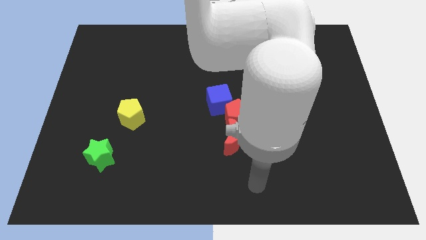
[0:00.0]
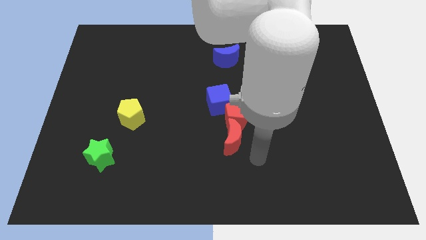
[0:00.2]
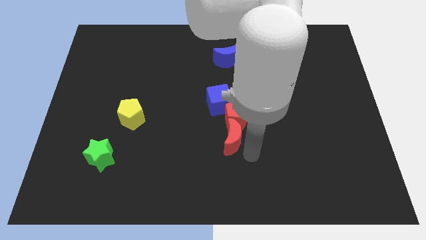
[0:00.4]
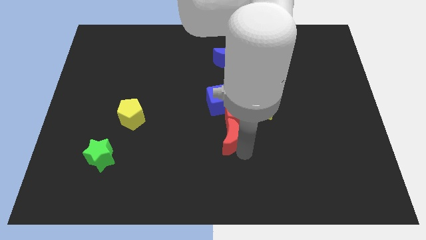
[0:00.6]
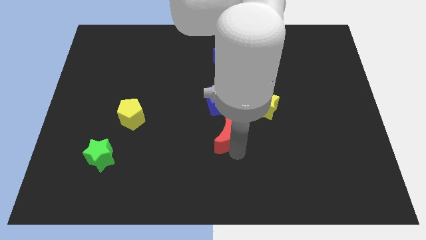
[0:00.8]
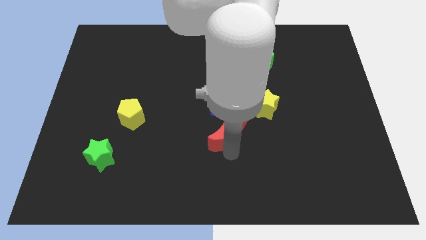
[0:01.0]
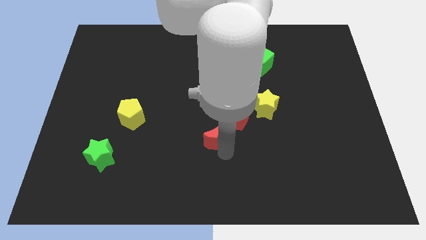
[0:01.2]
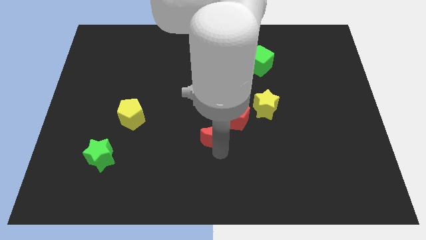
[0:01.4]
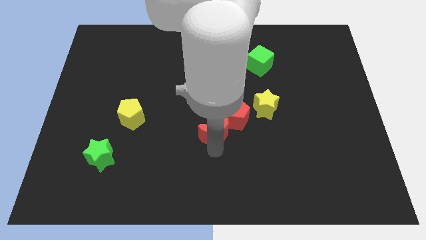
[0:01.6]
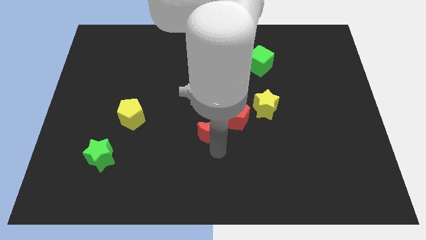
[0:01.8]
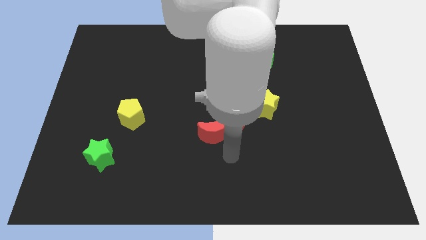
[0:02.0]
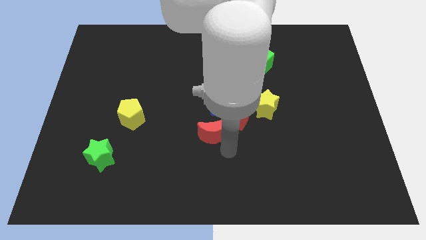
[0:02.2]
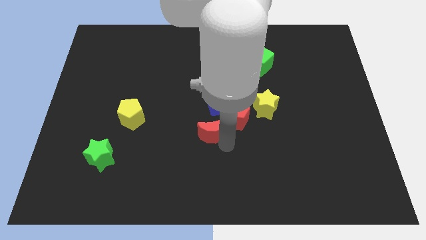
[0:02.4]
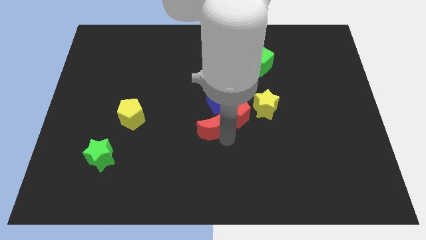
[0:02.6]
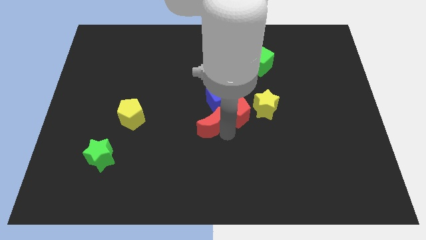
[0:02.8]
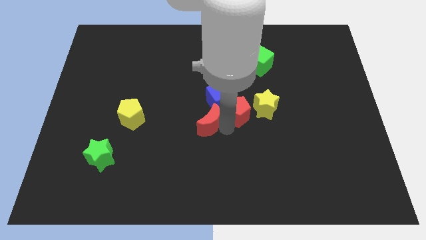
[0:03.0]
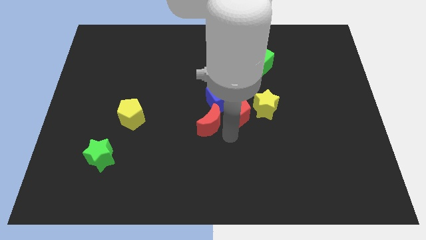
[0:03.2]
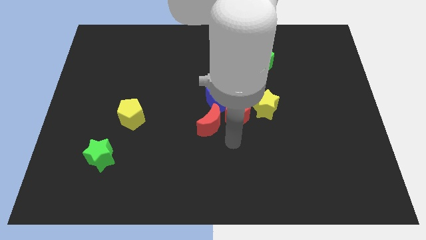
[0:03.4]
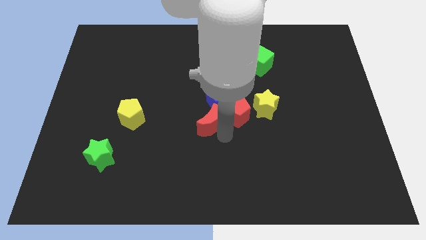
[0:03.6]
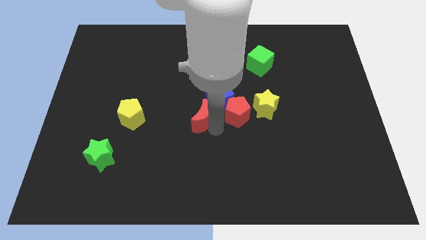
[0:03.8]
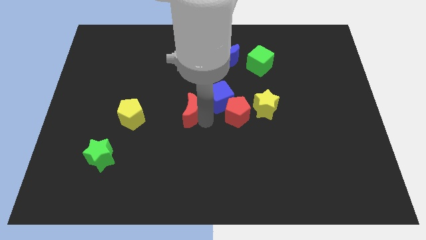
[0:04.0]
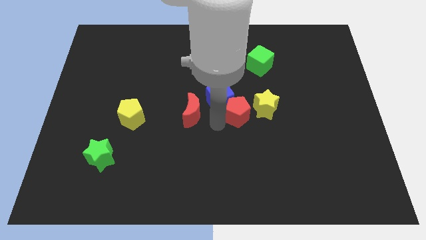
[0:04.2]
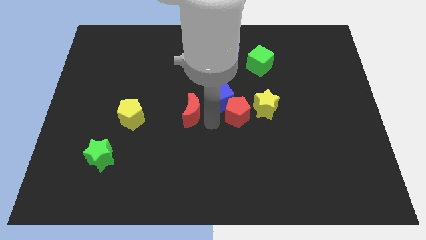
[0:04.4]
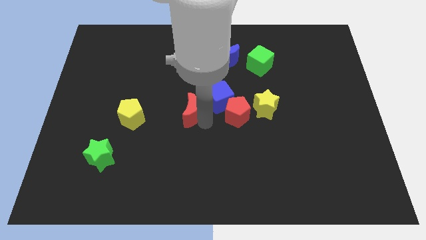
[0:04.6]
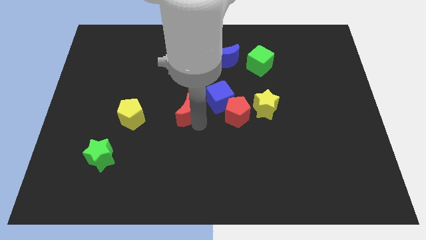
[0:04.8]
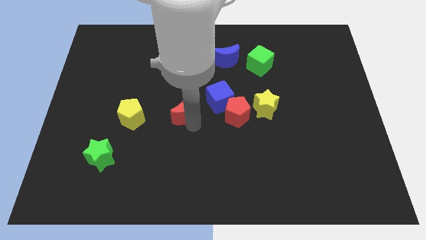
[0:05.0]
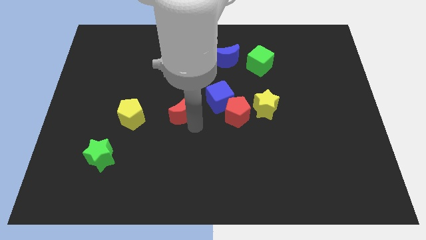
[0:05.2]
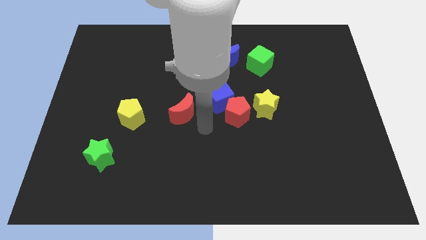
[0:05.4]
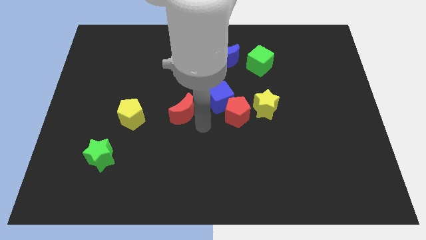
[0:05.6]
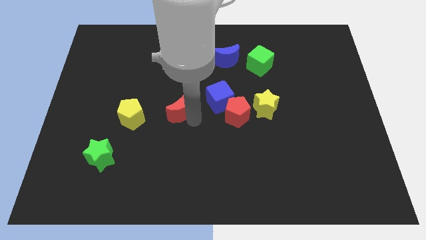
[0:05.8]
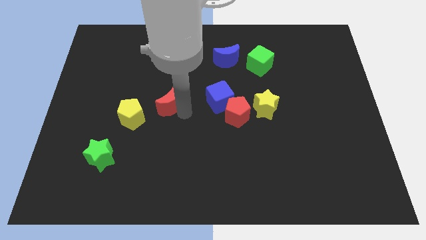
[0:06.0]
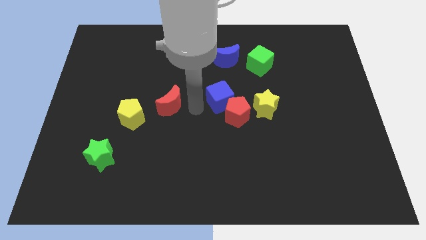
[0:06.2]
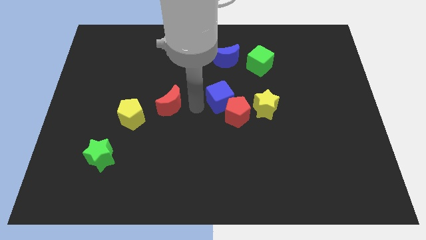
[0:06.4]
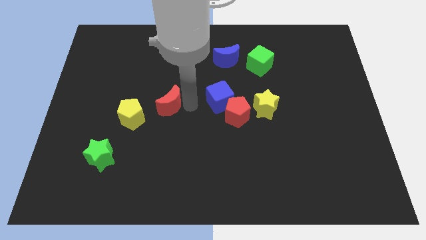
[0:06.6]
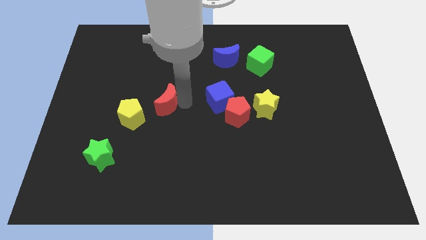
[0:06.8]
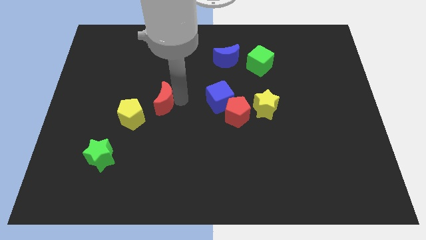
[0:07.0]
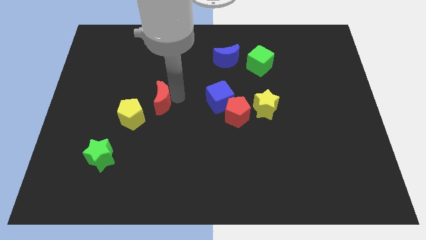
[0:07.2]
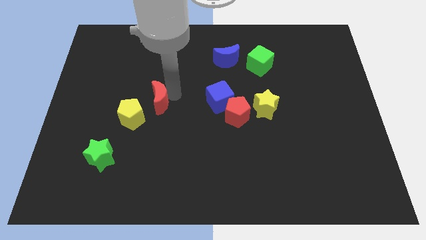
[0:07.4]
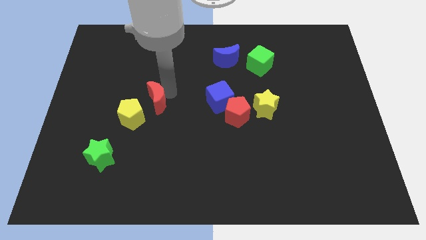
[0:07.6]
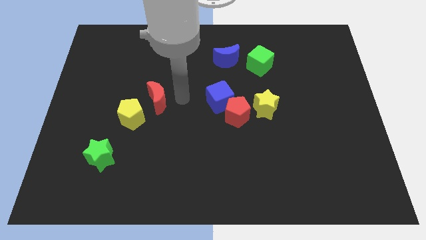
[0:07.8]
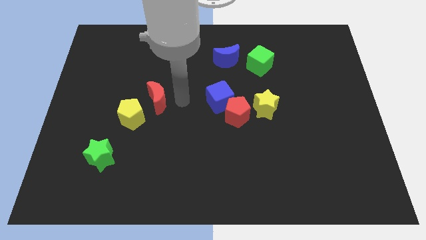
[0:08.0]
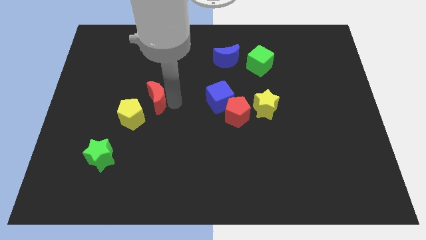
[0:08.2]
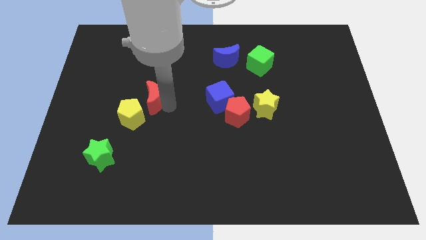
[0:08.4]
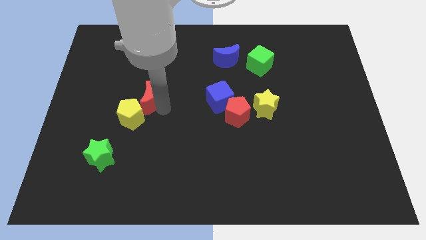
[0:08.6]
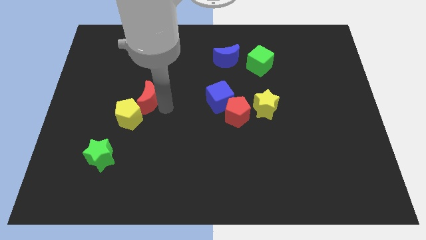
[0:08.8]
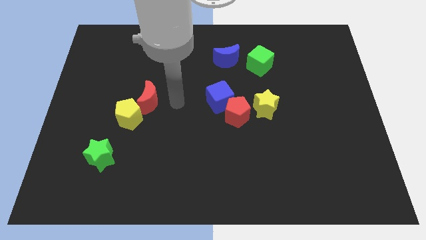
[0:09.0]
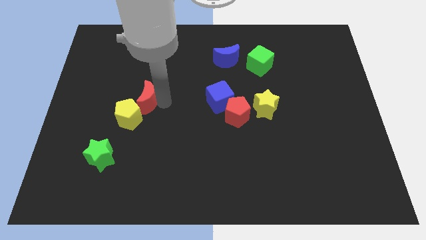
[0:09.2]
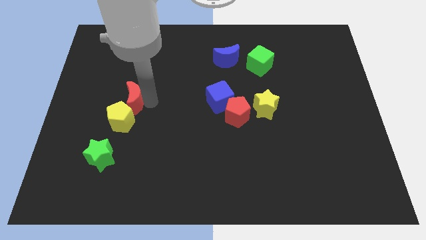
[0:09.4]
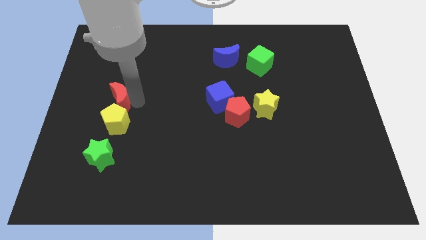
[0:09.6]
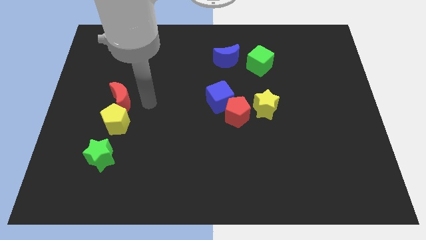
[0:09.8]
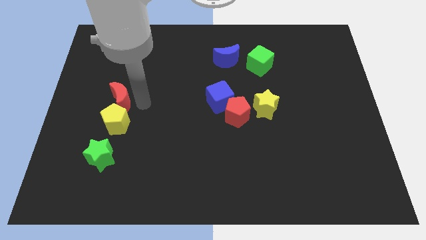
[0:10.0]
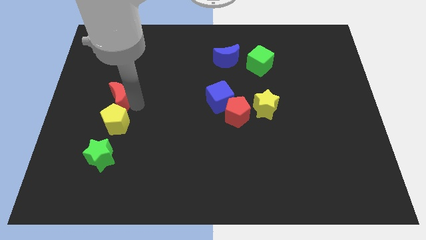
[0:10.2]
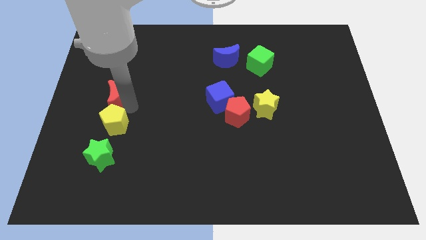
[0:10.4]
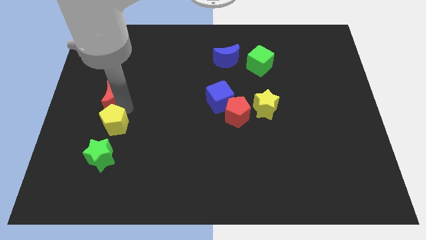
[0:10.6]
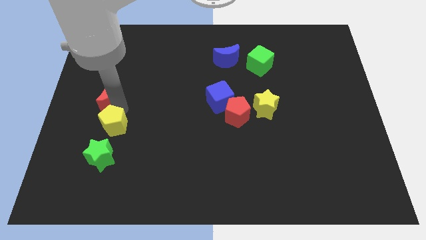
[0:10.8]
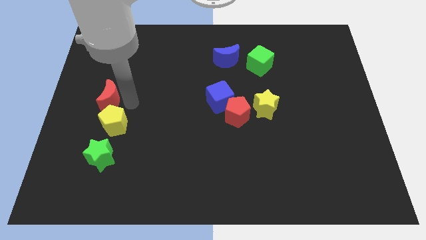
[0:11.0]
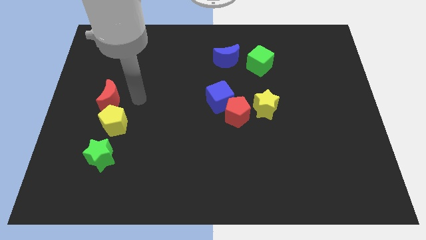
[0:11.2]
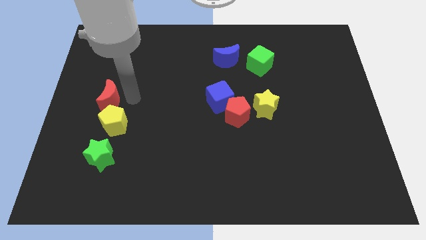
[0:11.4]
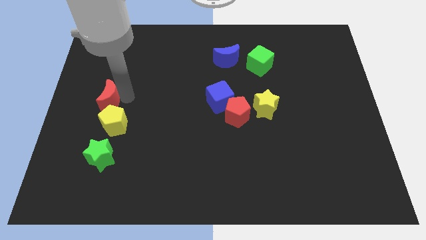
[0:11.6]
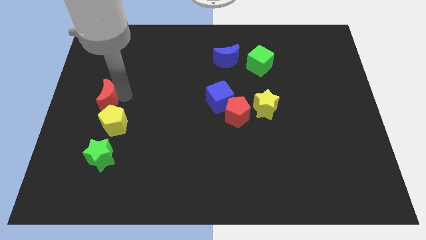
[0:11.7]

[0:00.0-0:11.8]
slide the red moon to the left side of the board

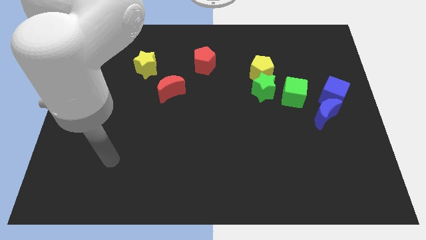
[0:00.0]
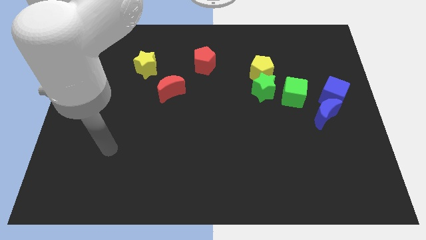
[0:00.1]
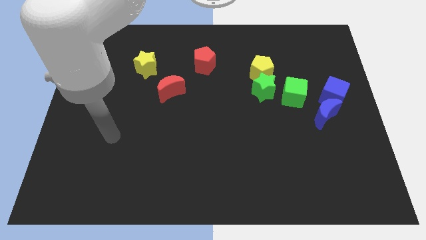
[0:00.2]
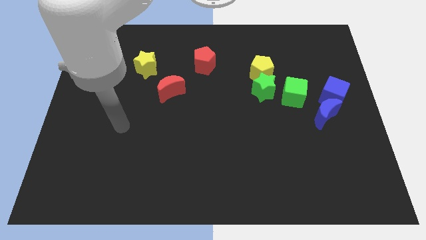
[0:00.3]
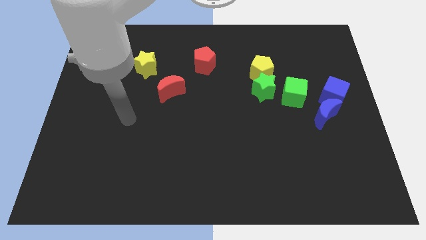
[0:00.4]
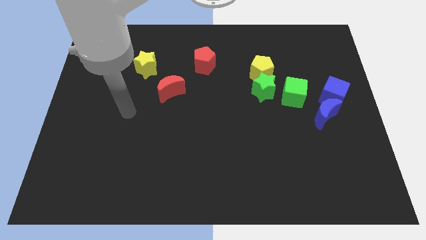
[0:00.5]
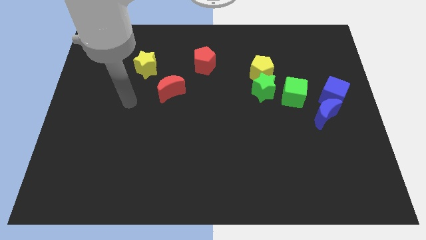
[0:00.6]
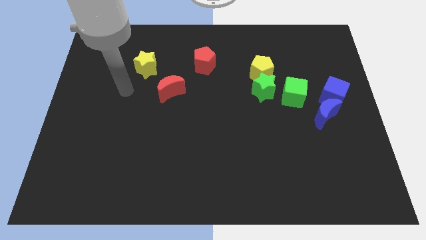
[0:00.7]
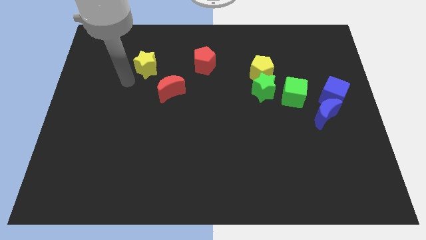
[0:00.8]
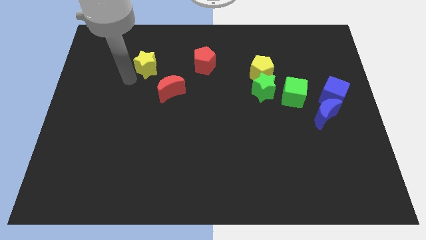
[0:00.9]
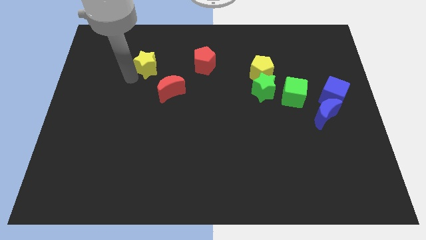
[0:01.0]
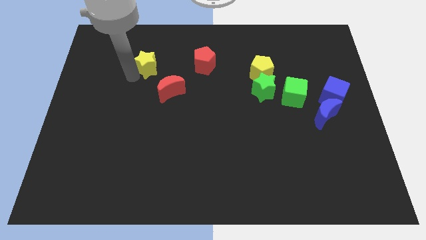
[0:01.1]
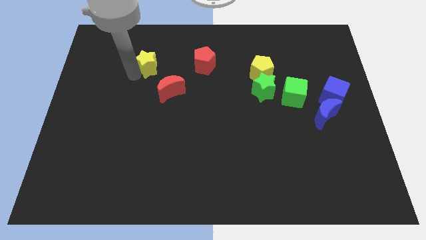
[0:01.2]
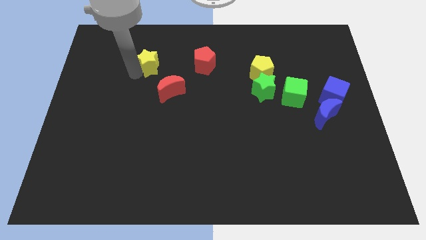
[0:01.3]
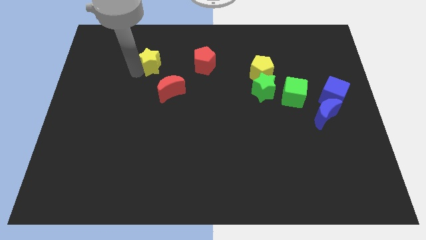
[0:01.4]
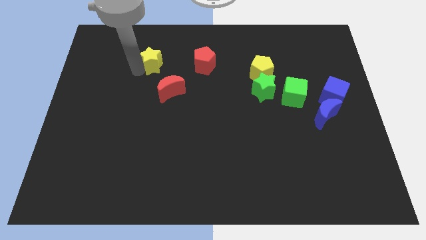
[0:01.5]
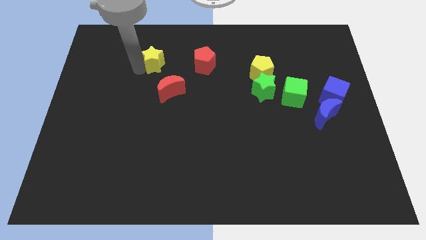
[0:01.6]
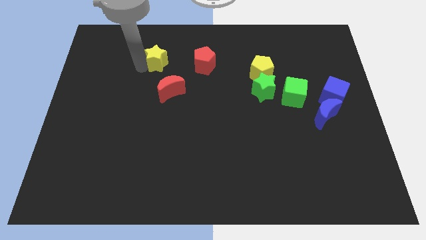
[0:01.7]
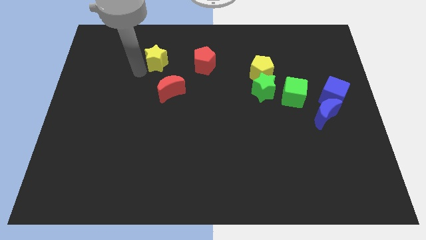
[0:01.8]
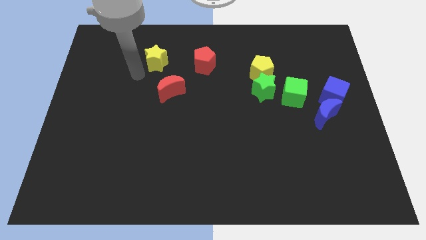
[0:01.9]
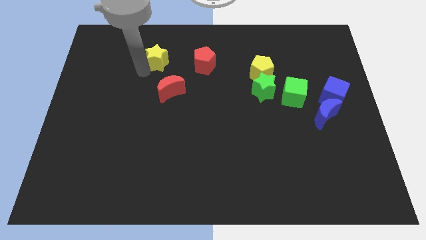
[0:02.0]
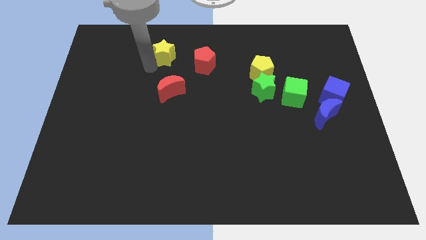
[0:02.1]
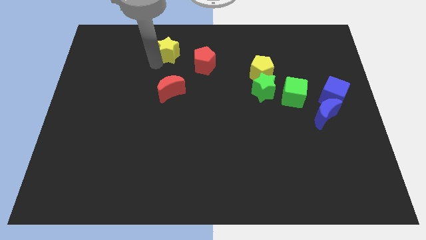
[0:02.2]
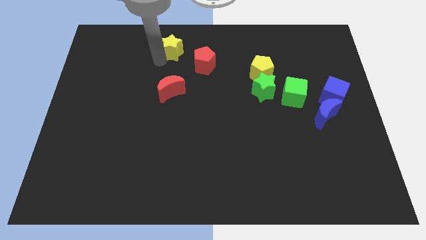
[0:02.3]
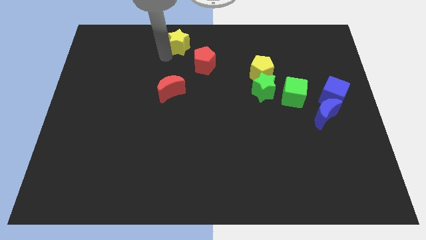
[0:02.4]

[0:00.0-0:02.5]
push the yellow star to the towards your base
